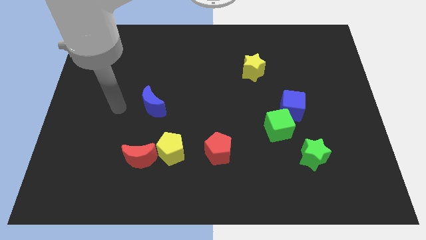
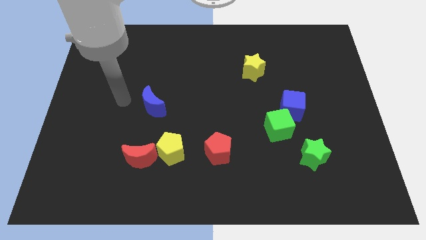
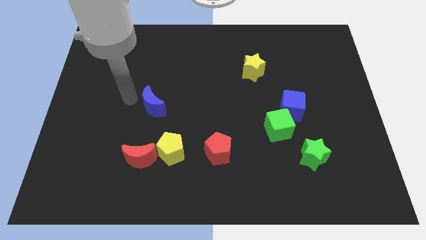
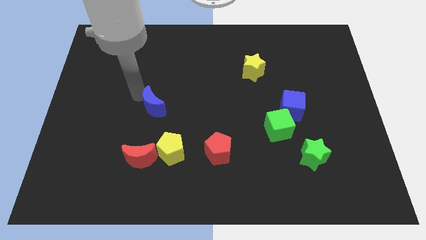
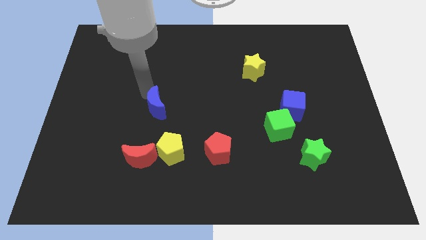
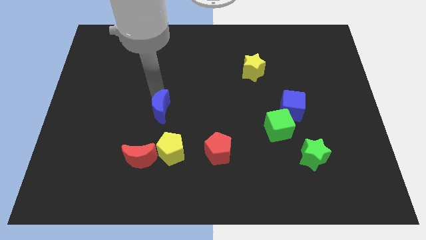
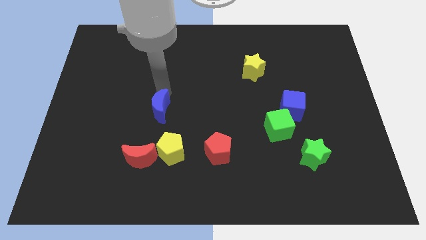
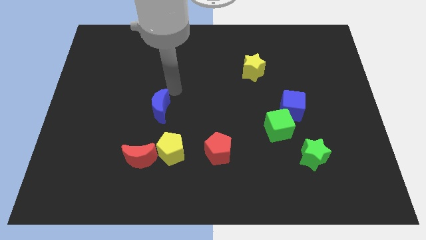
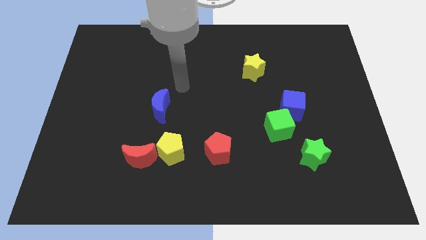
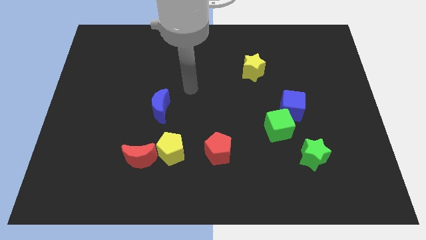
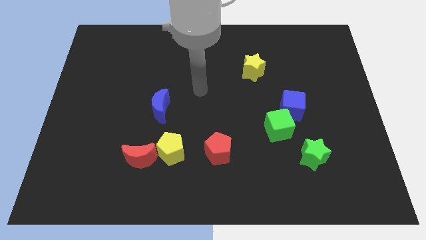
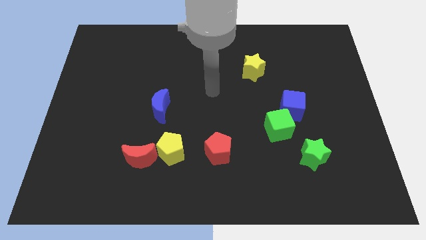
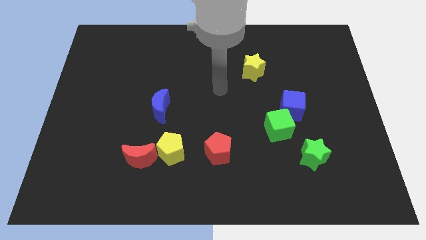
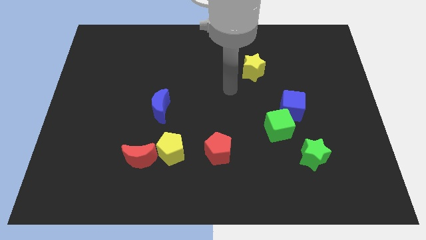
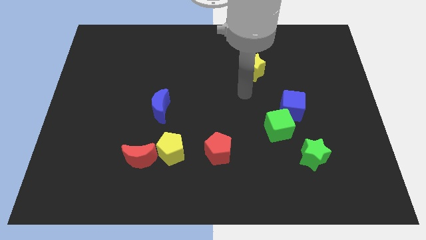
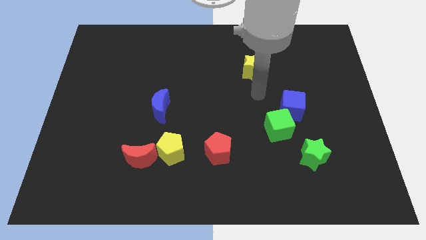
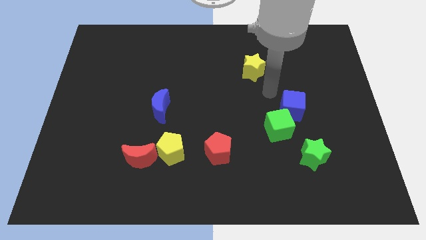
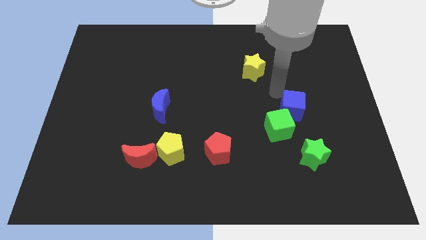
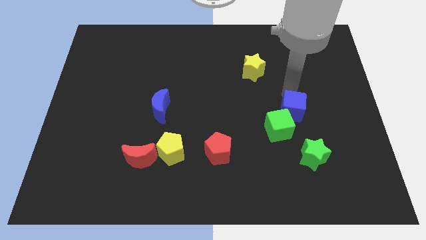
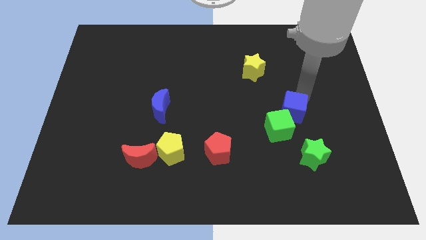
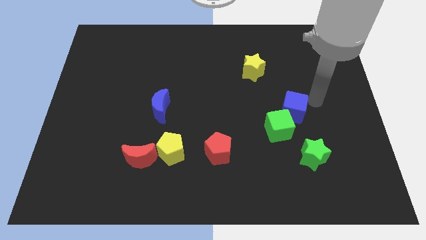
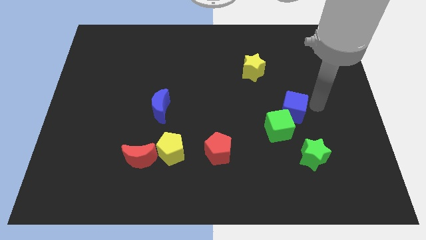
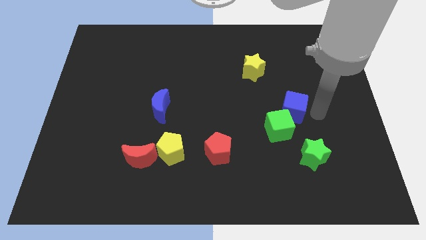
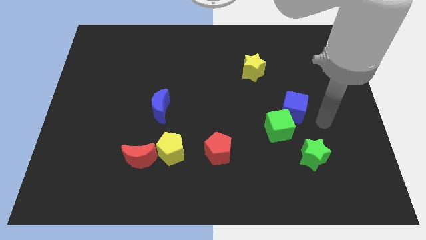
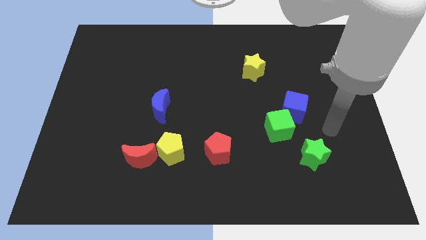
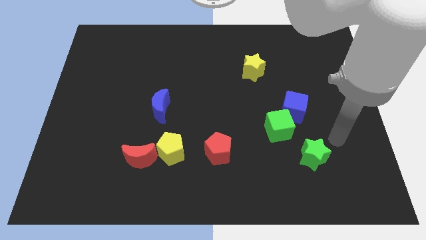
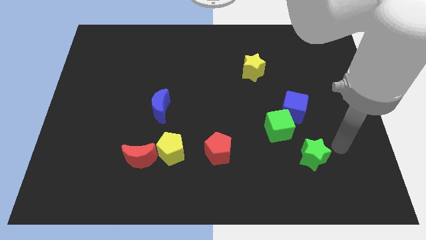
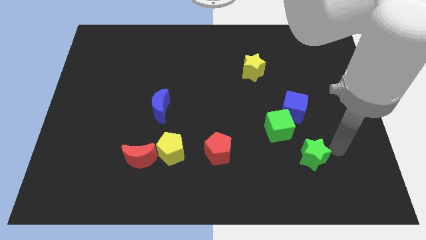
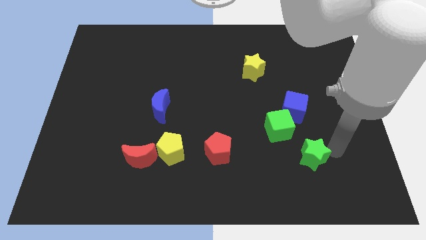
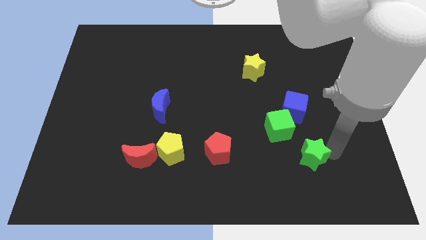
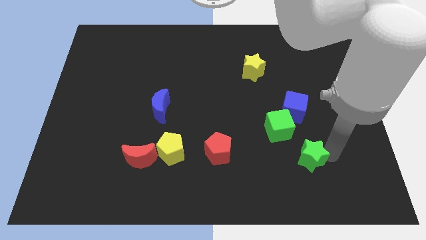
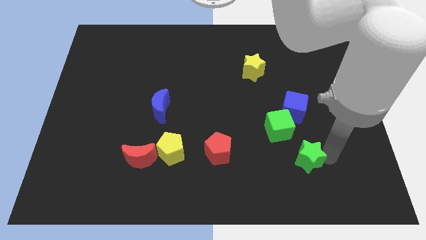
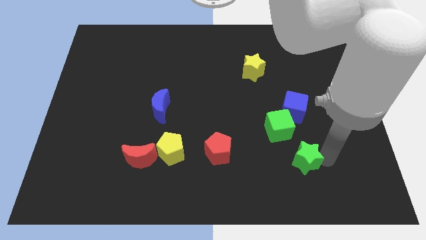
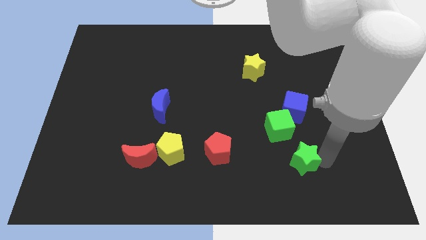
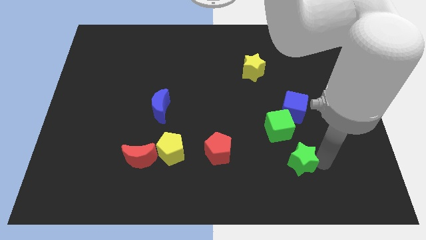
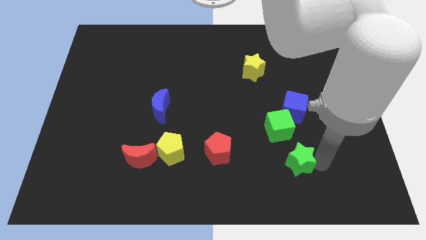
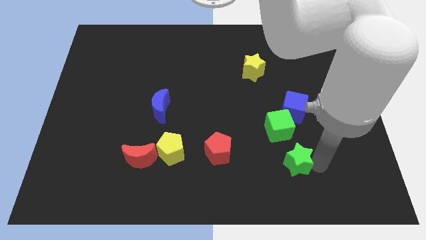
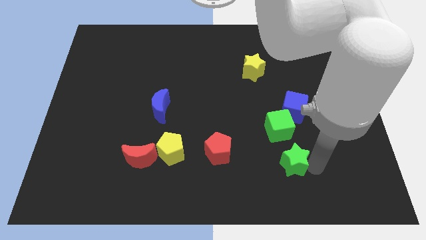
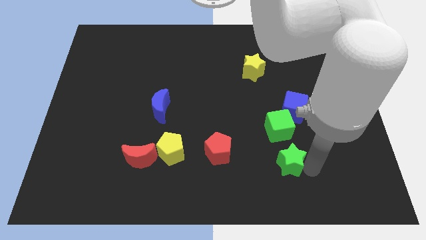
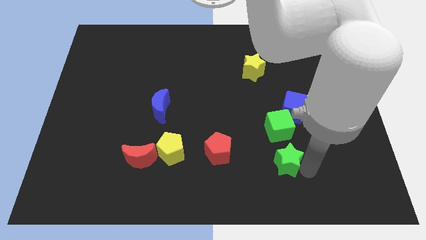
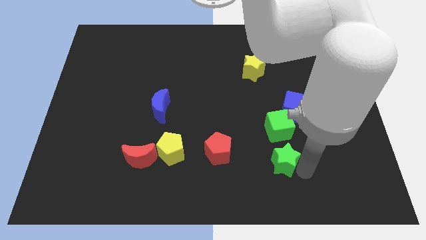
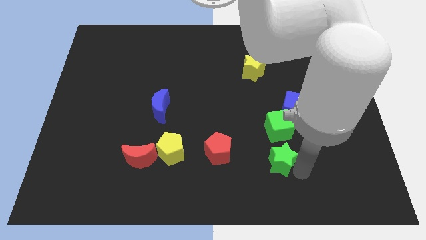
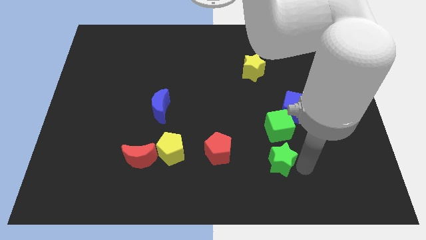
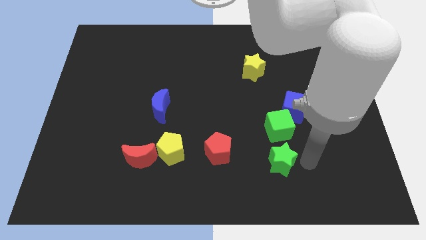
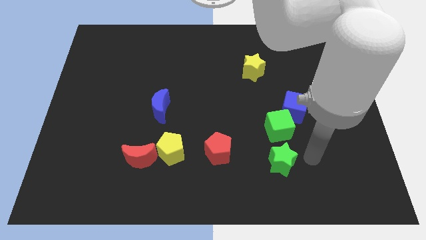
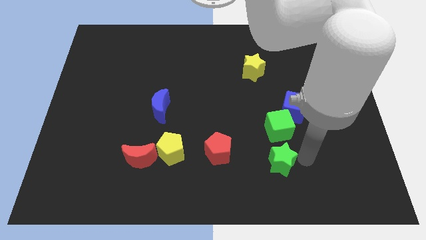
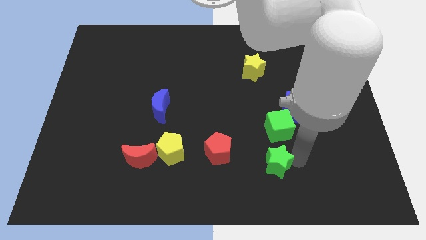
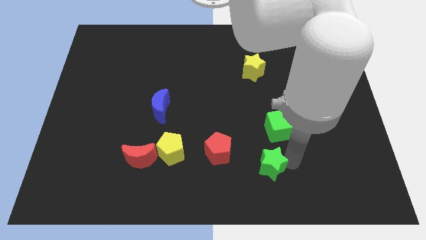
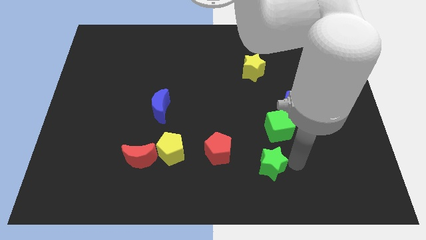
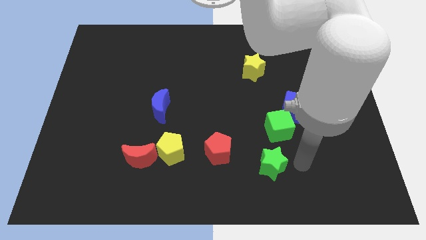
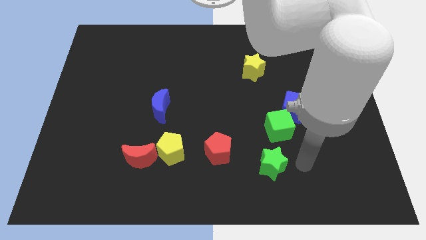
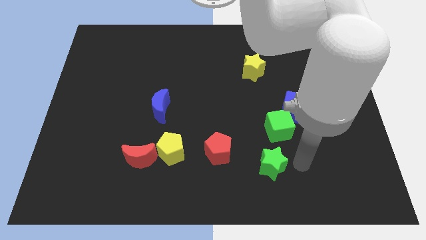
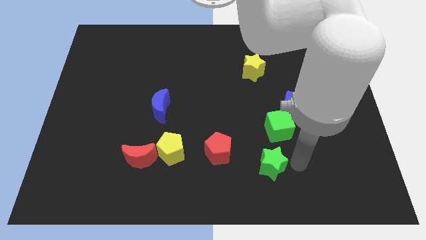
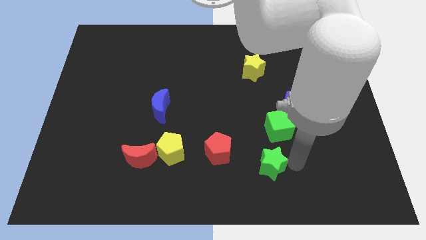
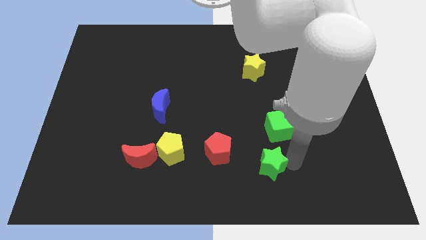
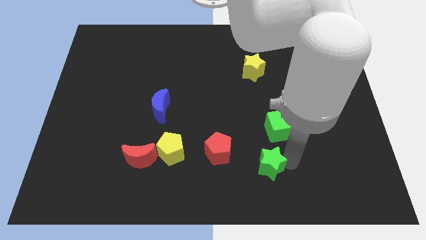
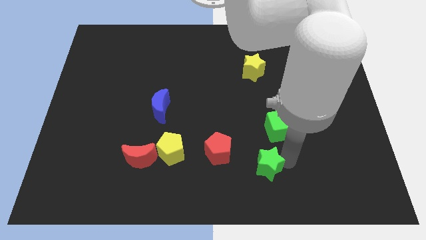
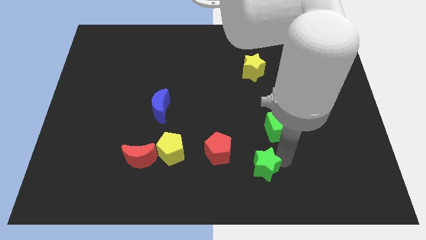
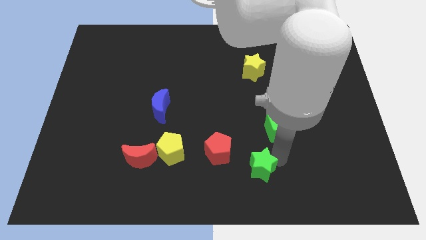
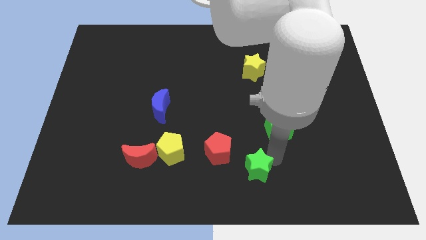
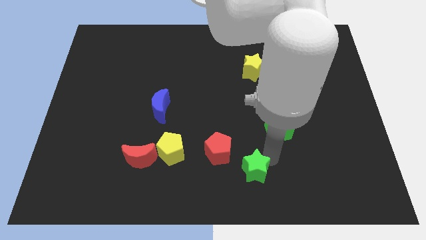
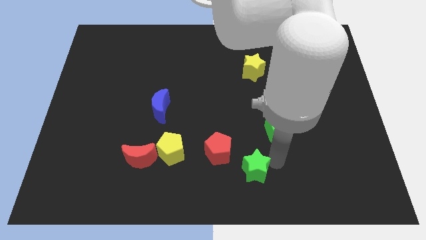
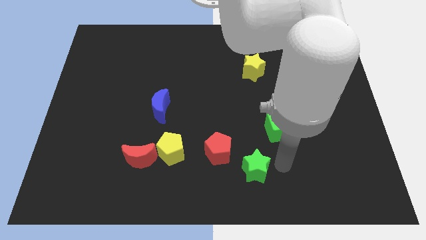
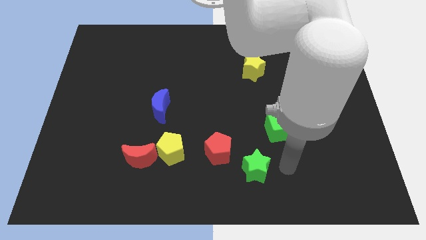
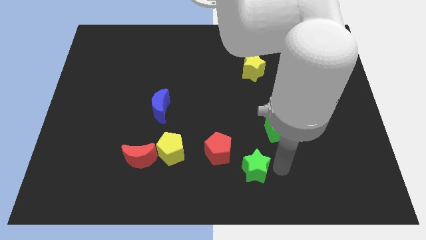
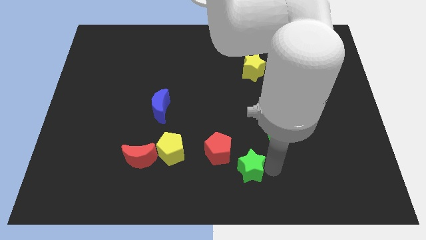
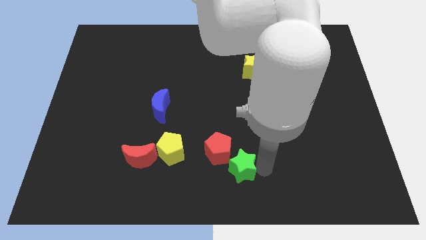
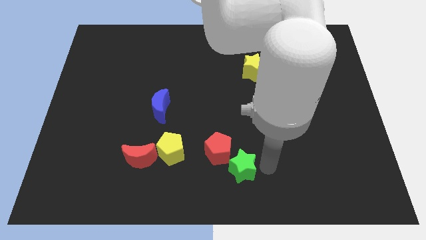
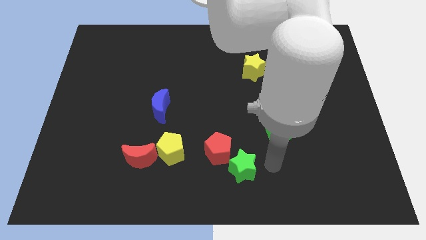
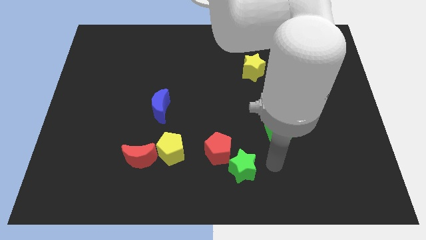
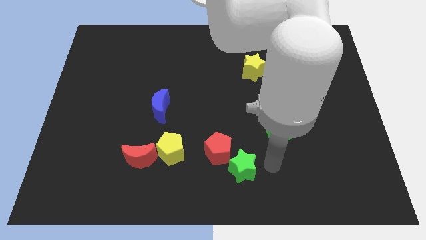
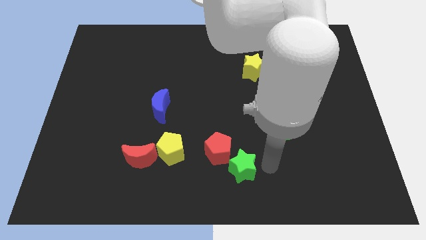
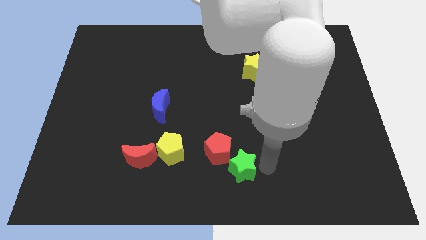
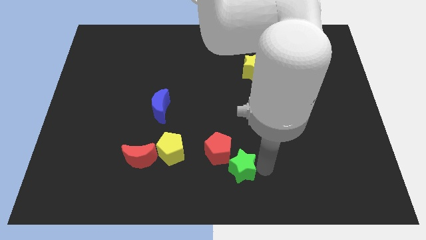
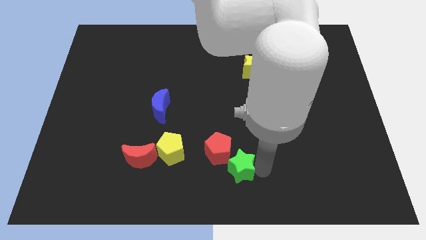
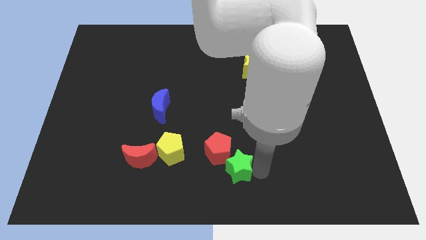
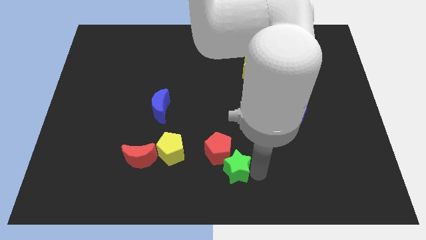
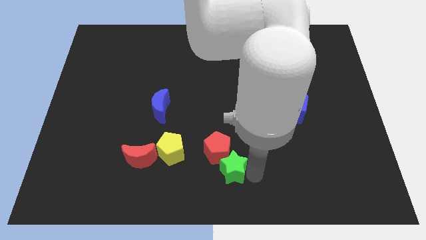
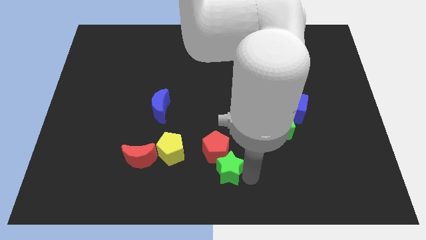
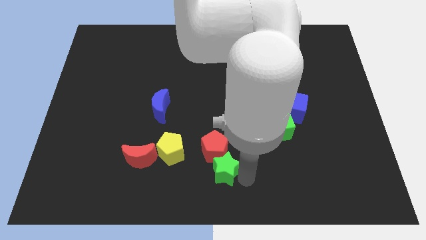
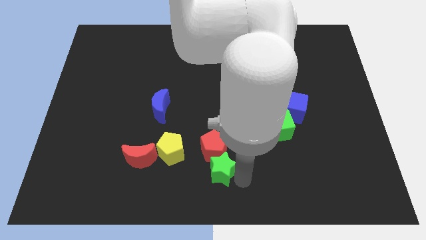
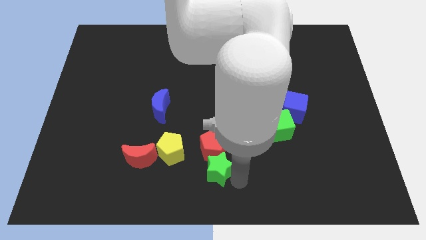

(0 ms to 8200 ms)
push the green star to the bottom left of the red pentagon
